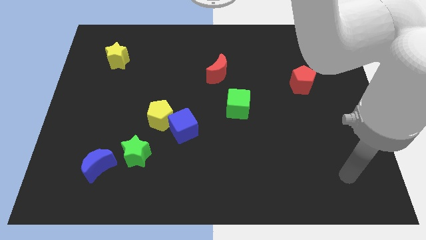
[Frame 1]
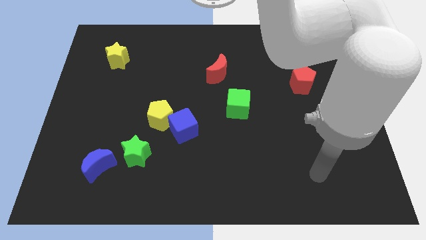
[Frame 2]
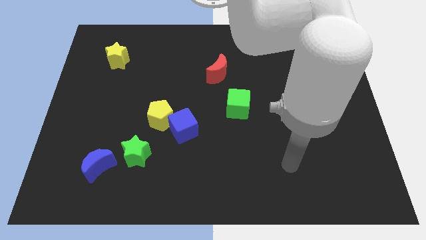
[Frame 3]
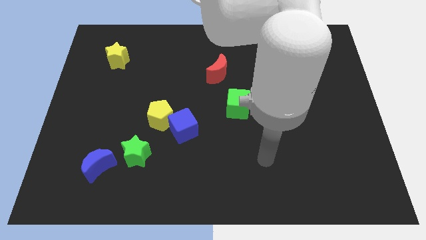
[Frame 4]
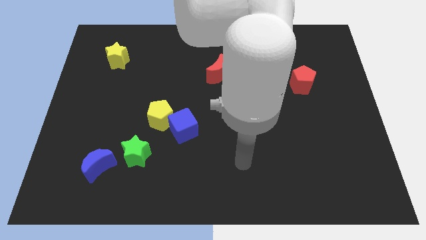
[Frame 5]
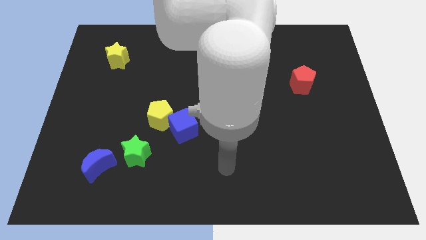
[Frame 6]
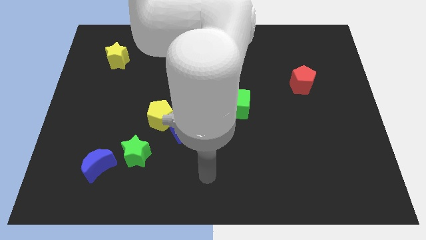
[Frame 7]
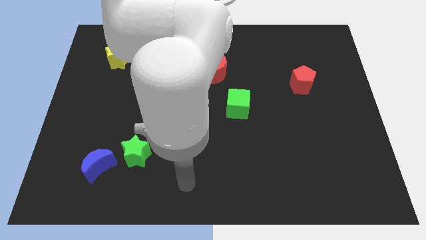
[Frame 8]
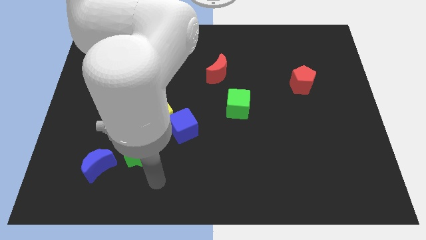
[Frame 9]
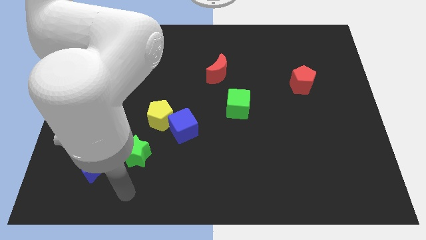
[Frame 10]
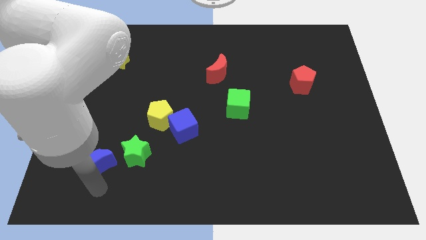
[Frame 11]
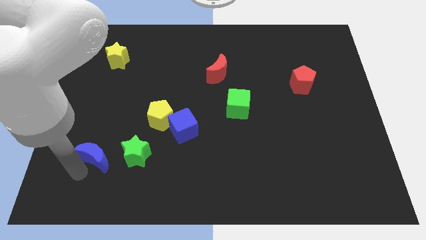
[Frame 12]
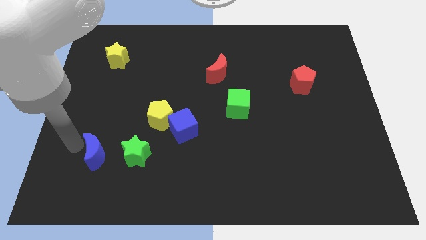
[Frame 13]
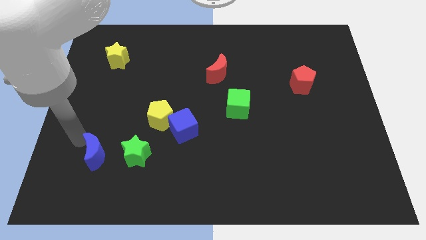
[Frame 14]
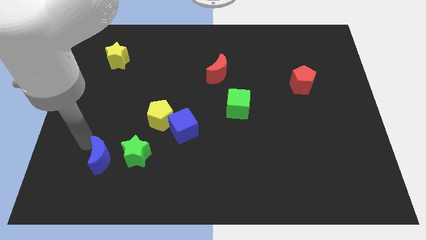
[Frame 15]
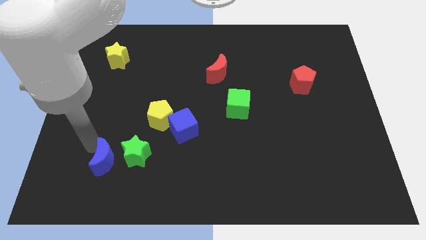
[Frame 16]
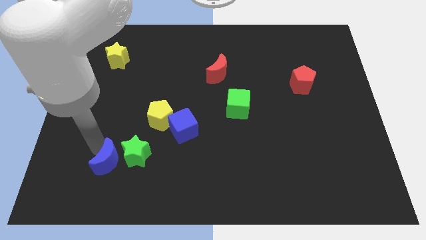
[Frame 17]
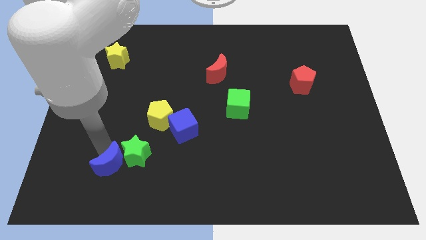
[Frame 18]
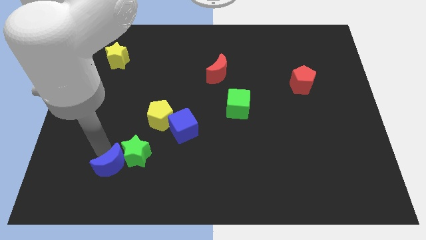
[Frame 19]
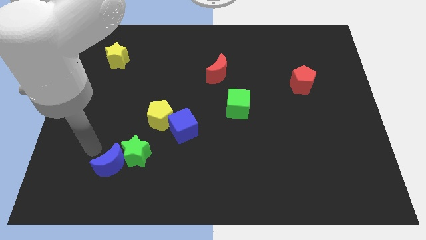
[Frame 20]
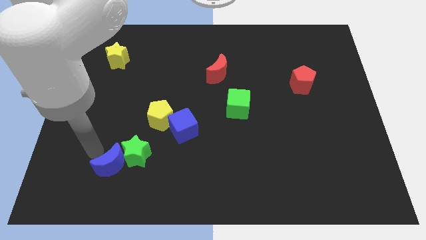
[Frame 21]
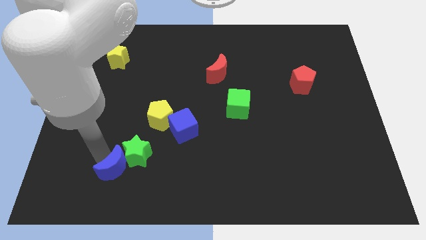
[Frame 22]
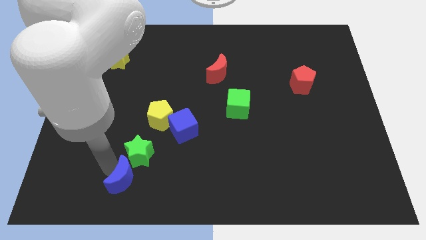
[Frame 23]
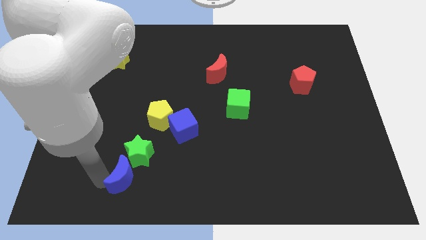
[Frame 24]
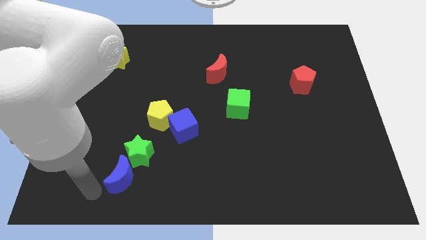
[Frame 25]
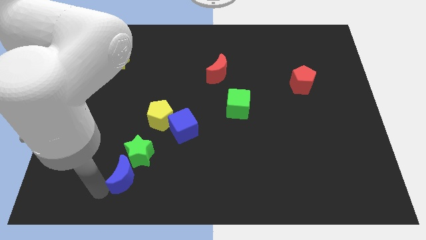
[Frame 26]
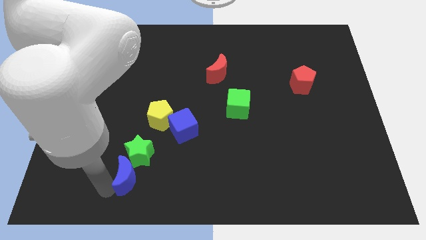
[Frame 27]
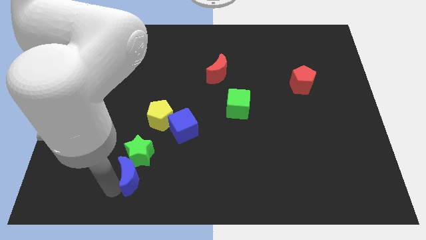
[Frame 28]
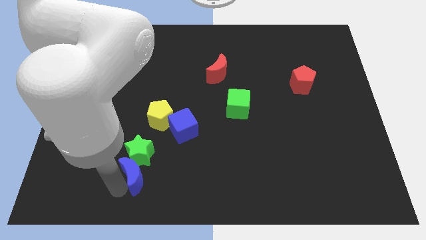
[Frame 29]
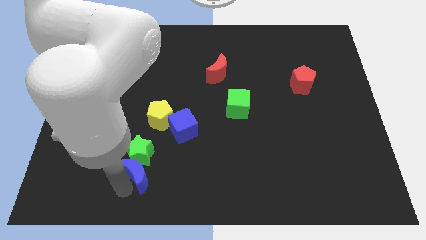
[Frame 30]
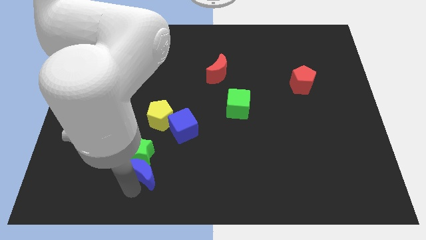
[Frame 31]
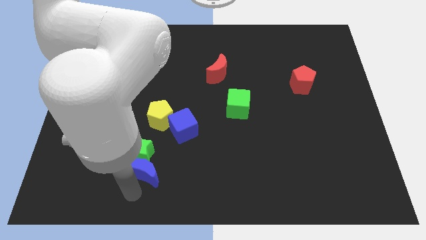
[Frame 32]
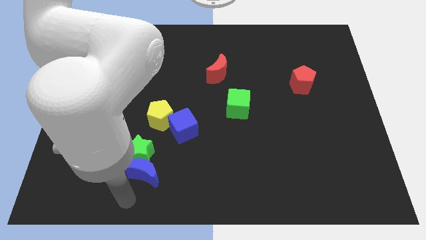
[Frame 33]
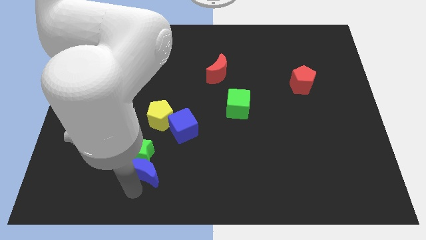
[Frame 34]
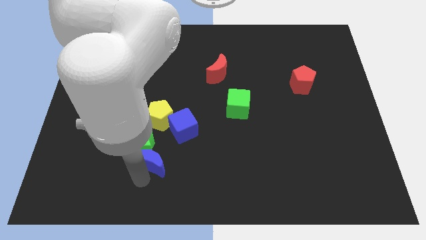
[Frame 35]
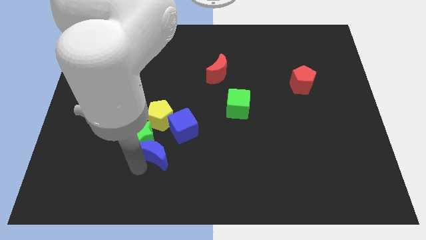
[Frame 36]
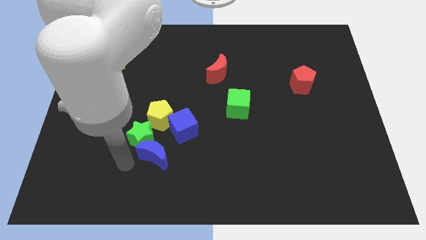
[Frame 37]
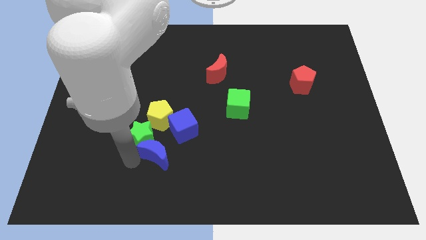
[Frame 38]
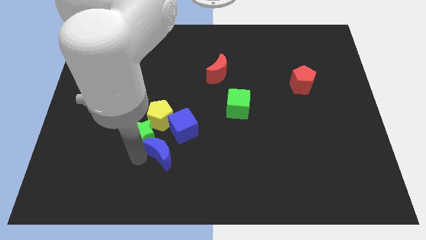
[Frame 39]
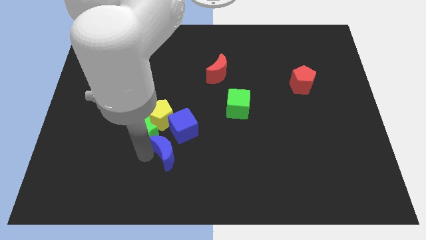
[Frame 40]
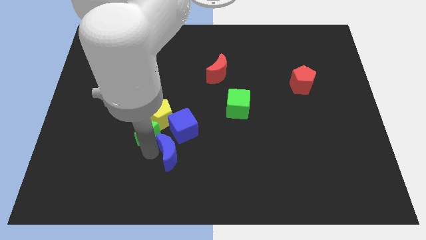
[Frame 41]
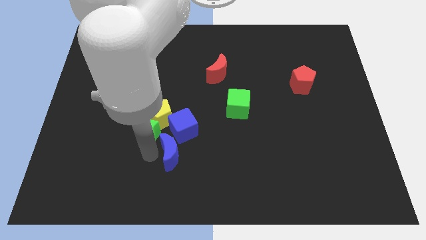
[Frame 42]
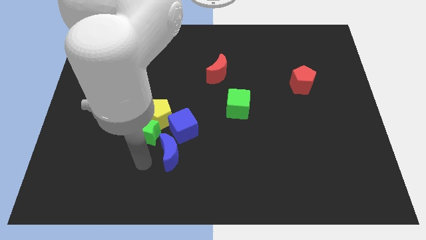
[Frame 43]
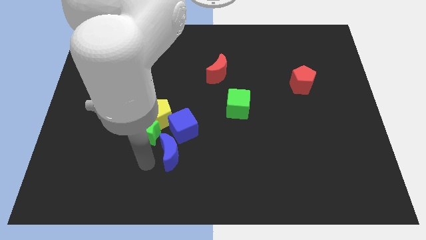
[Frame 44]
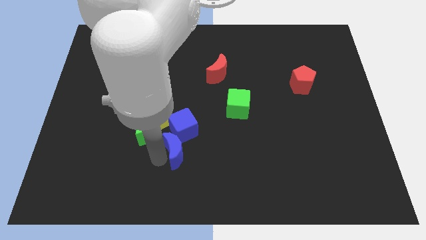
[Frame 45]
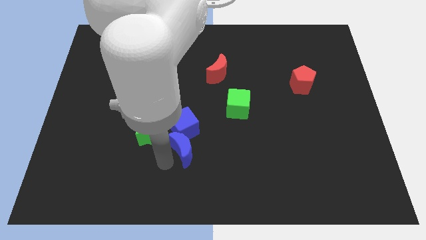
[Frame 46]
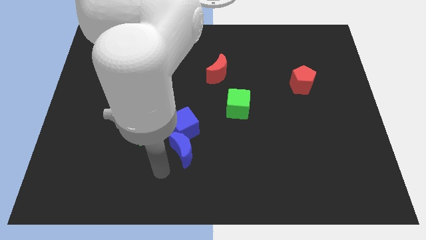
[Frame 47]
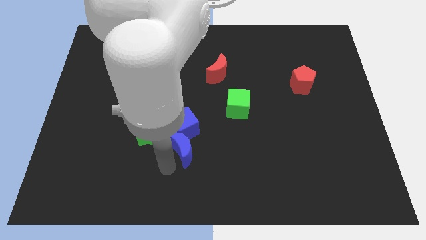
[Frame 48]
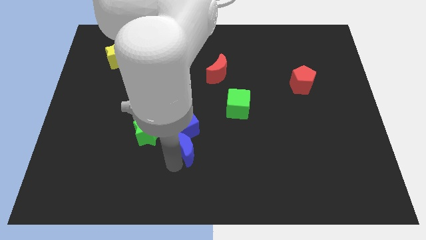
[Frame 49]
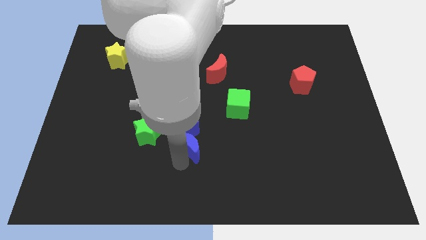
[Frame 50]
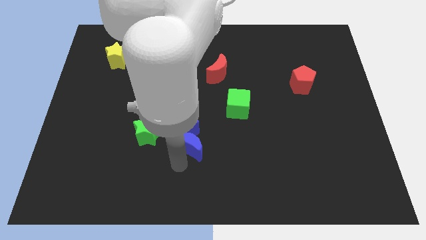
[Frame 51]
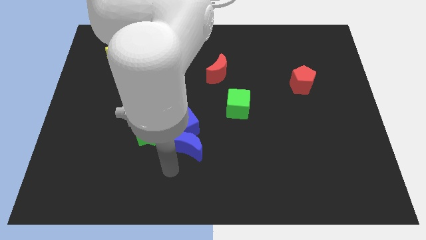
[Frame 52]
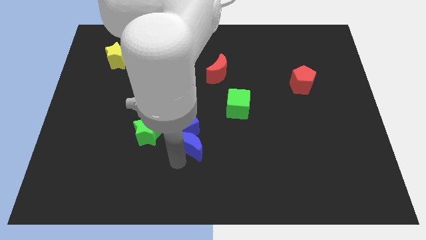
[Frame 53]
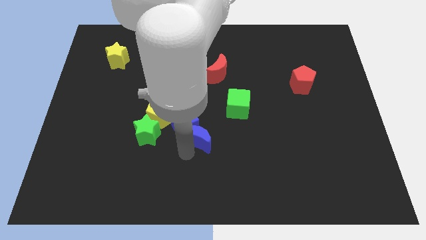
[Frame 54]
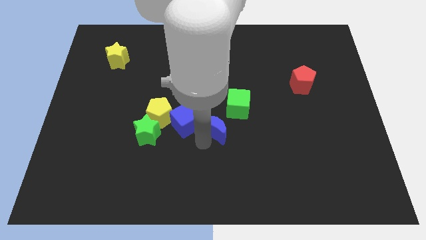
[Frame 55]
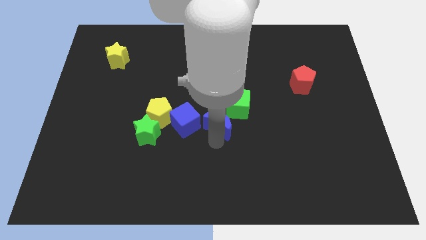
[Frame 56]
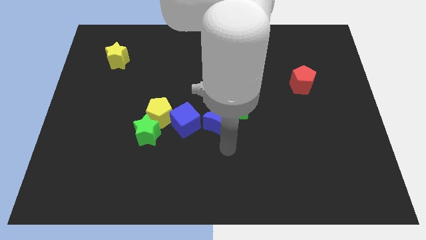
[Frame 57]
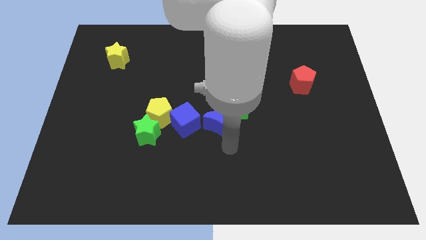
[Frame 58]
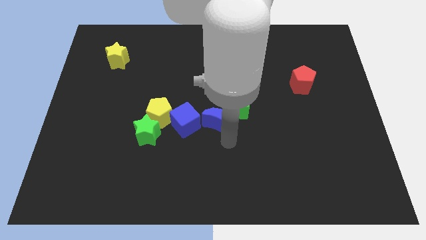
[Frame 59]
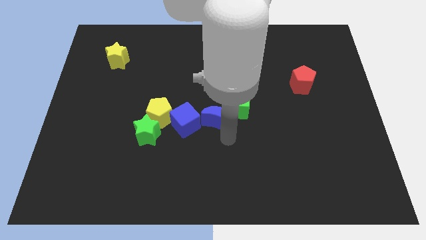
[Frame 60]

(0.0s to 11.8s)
put the blue moon to the top right side of the blue cube

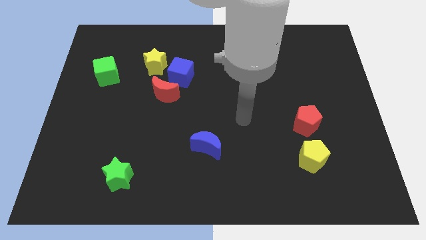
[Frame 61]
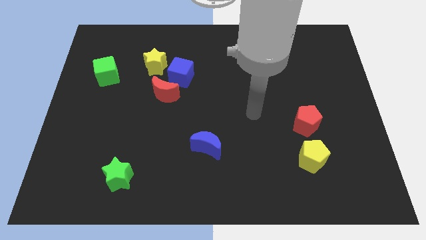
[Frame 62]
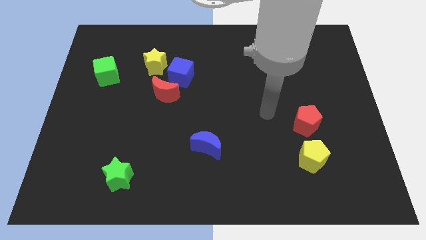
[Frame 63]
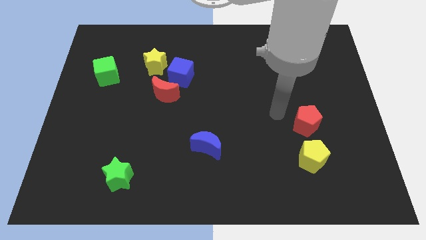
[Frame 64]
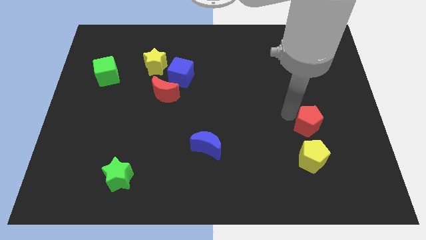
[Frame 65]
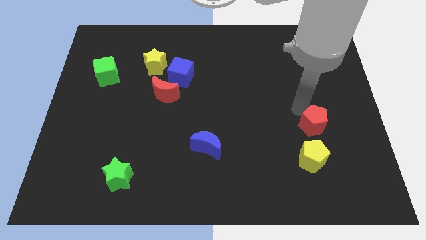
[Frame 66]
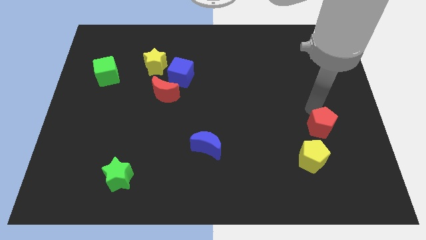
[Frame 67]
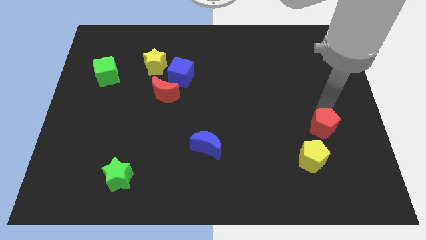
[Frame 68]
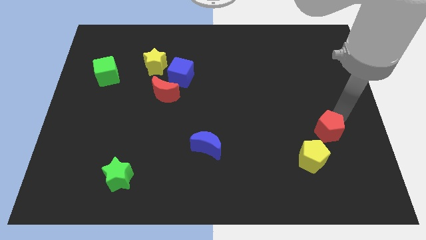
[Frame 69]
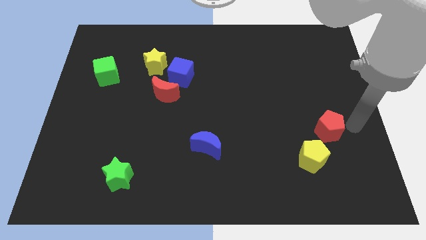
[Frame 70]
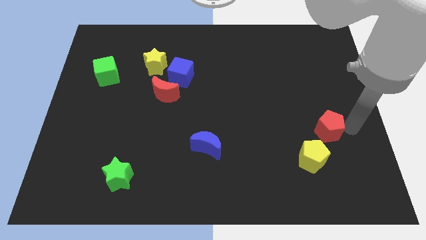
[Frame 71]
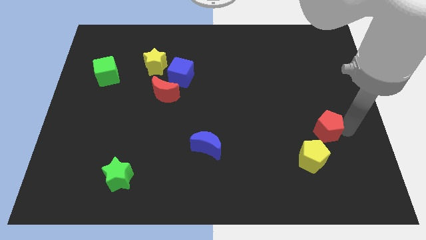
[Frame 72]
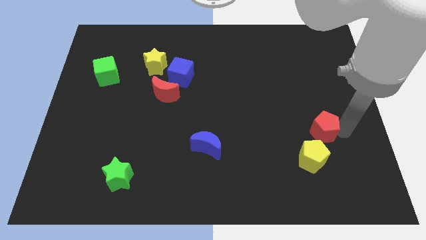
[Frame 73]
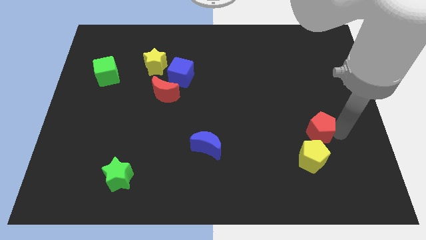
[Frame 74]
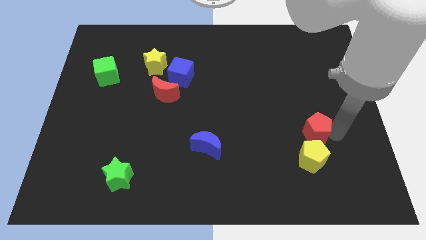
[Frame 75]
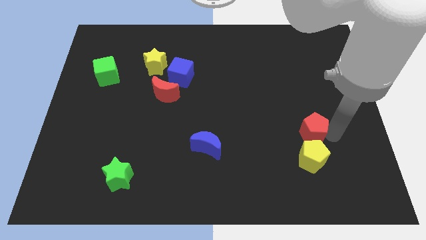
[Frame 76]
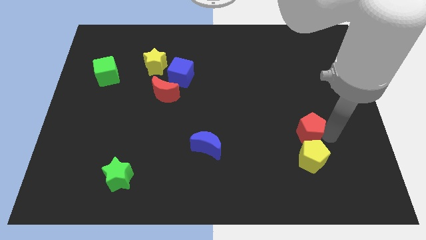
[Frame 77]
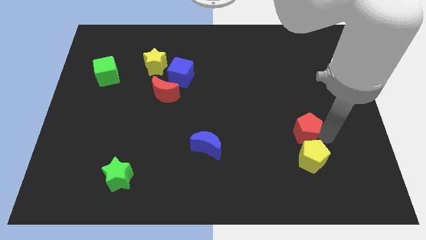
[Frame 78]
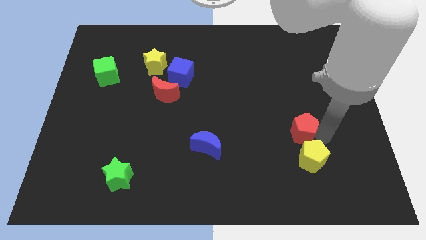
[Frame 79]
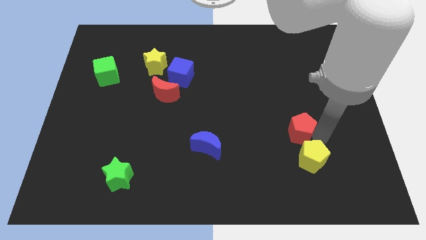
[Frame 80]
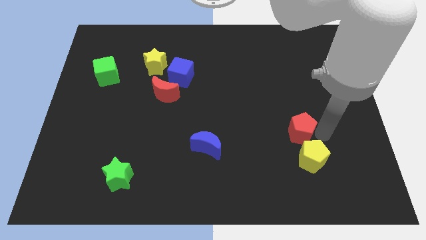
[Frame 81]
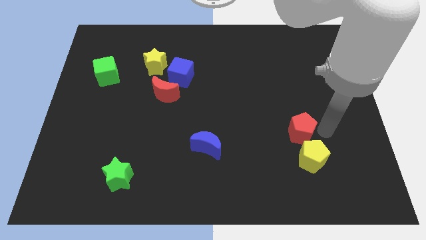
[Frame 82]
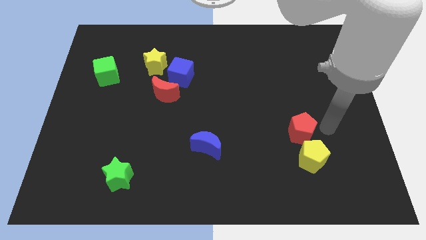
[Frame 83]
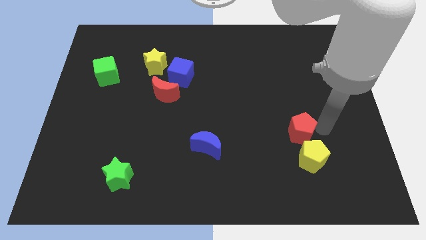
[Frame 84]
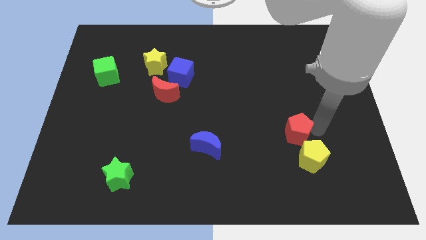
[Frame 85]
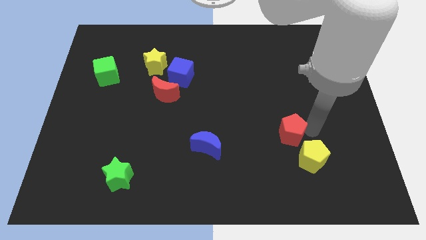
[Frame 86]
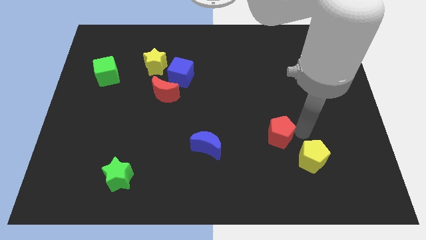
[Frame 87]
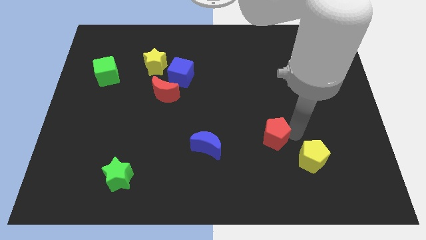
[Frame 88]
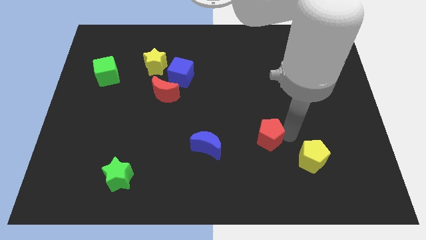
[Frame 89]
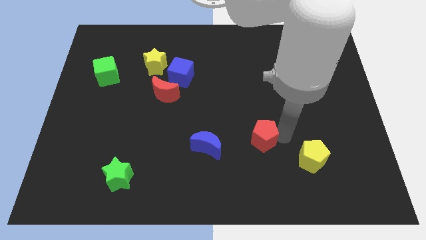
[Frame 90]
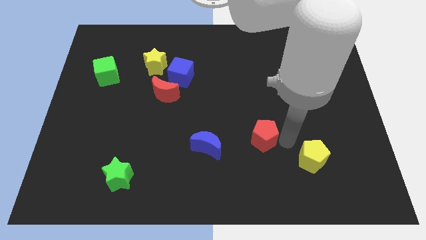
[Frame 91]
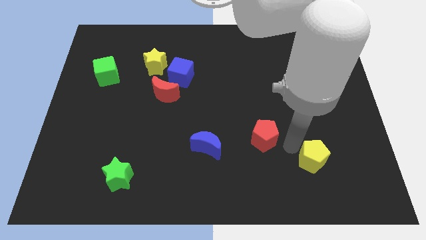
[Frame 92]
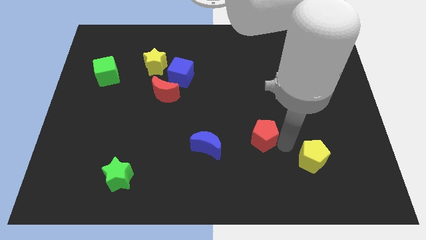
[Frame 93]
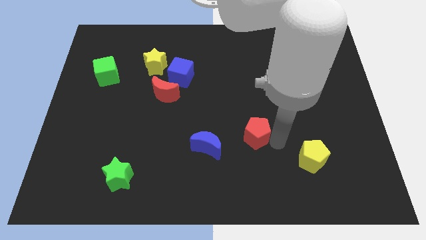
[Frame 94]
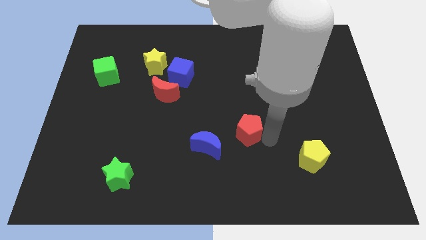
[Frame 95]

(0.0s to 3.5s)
move the red pentagon to the top right side of the blue moon
